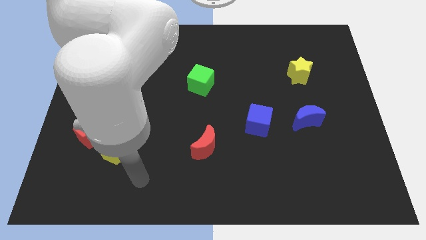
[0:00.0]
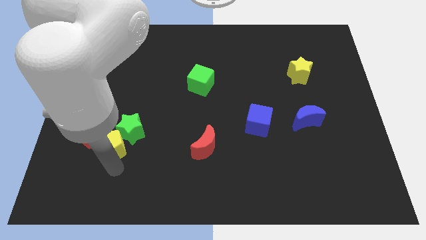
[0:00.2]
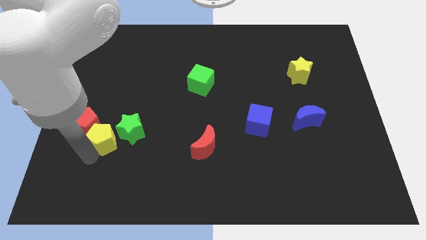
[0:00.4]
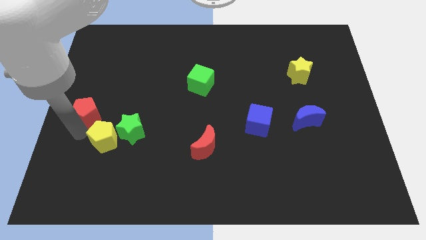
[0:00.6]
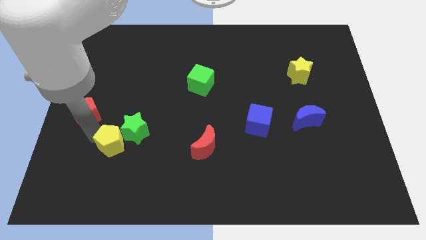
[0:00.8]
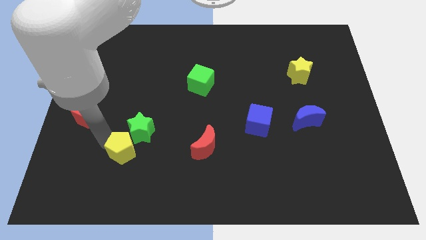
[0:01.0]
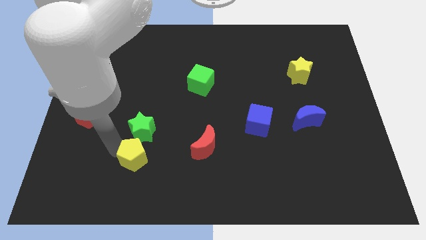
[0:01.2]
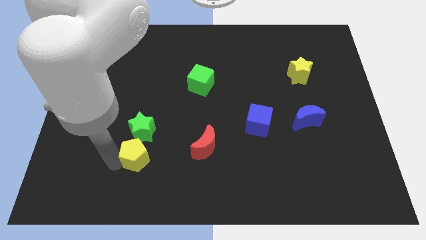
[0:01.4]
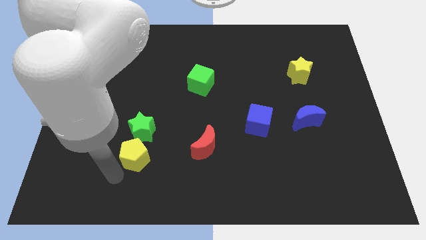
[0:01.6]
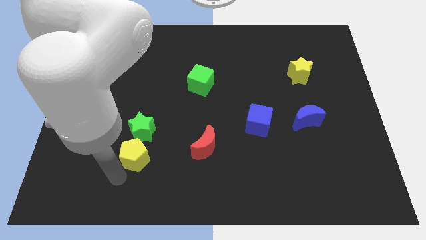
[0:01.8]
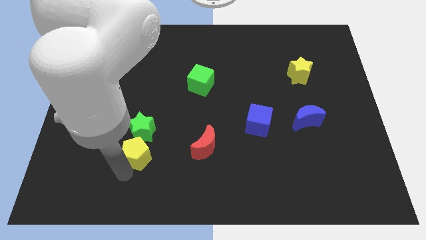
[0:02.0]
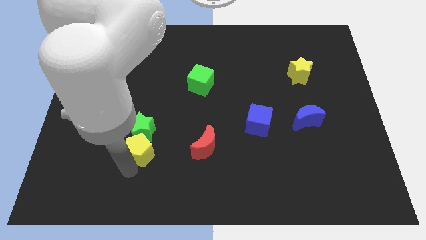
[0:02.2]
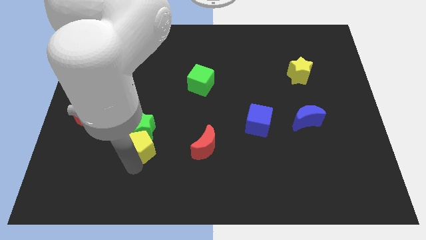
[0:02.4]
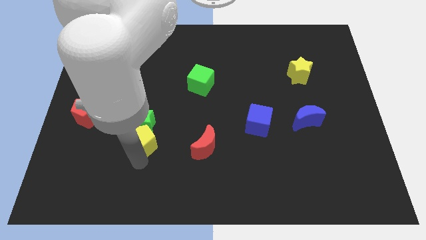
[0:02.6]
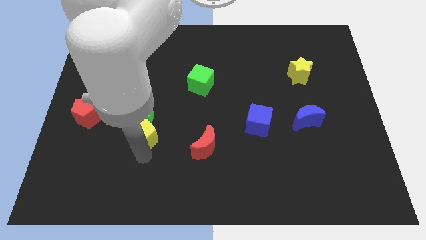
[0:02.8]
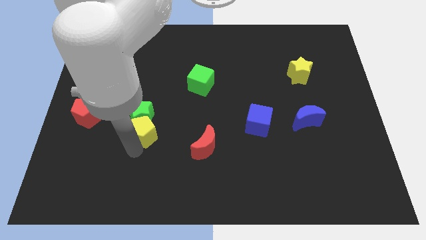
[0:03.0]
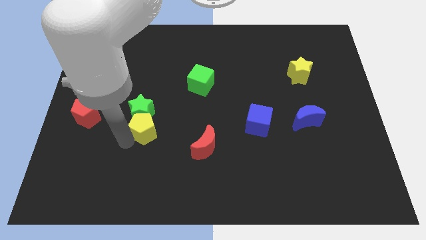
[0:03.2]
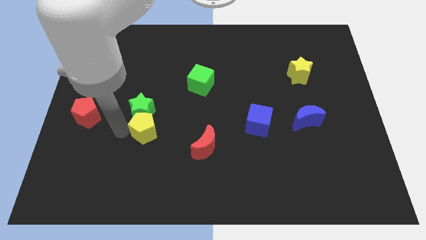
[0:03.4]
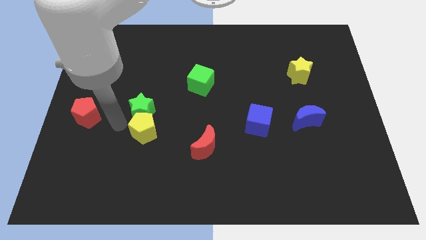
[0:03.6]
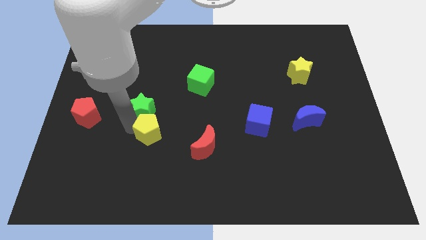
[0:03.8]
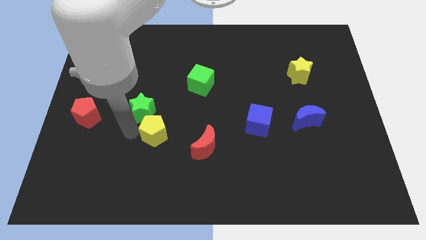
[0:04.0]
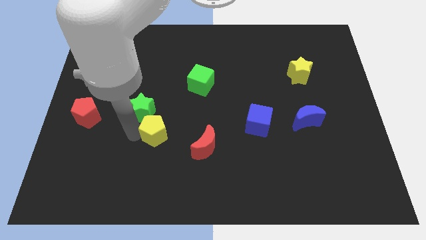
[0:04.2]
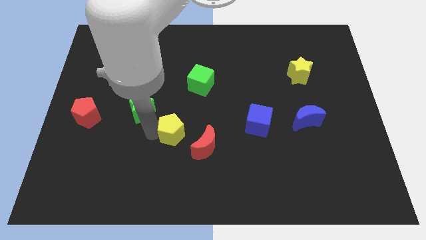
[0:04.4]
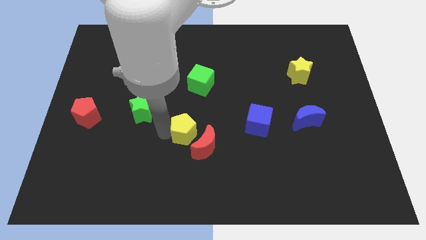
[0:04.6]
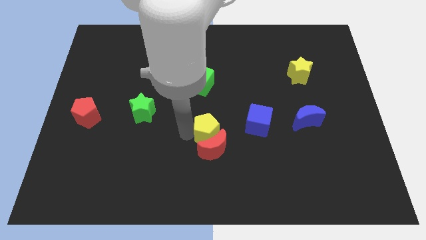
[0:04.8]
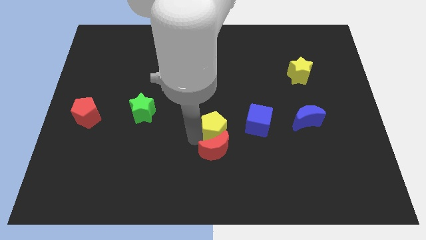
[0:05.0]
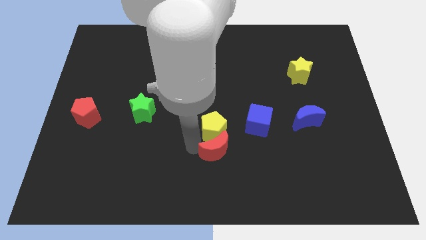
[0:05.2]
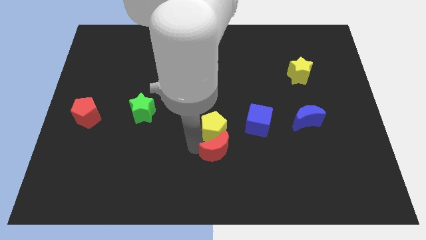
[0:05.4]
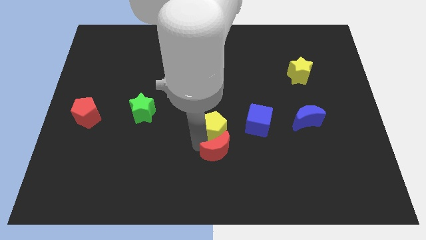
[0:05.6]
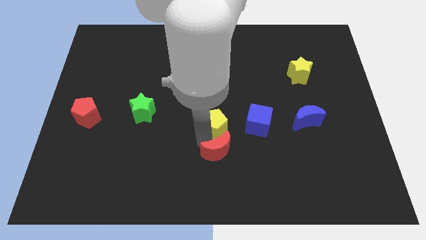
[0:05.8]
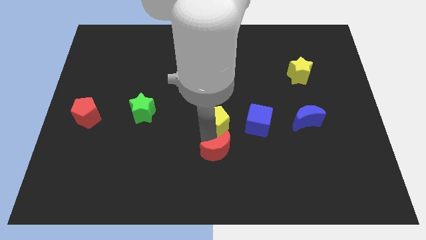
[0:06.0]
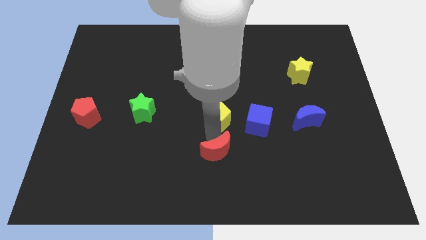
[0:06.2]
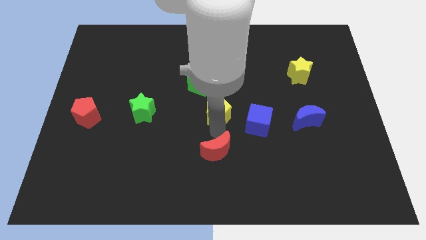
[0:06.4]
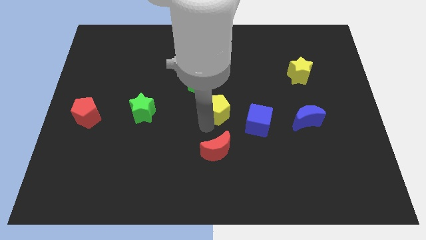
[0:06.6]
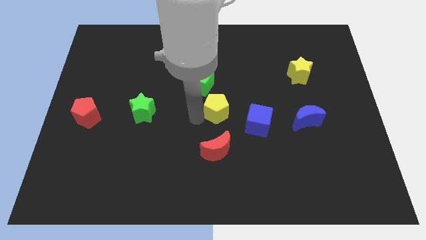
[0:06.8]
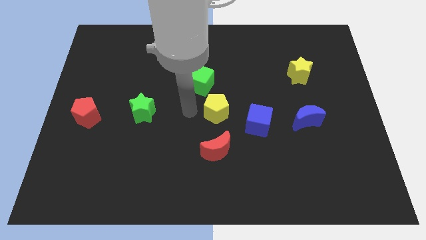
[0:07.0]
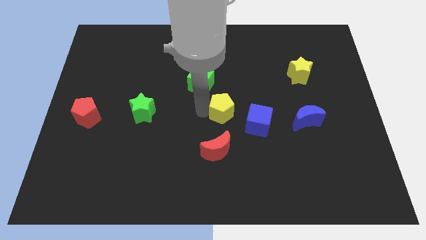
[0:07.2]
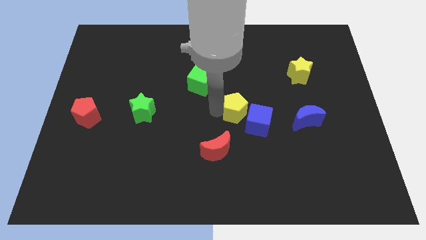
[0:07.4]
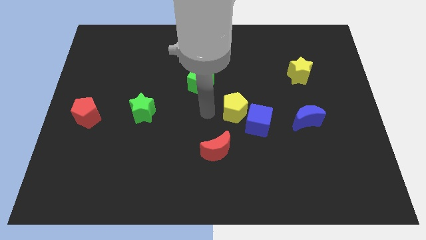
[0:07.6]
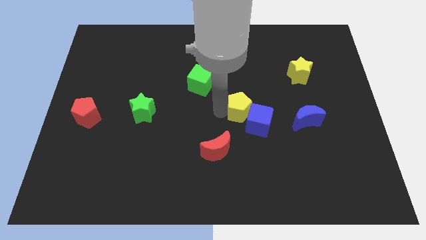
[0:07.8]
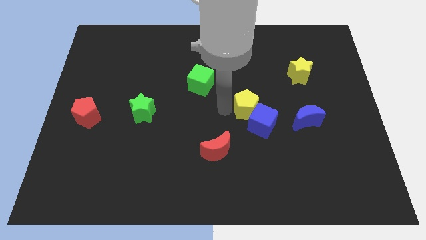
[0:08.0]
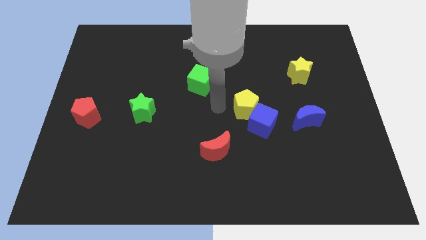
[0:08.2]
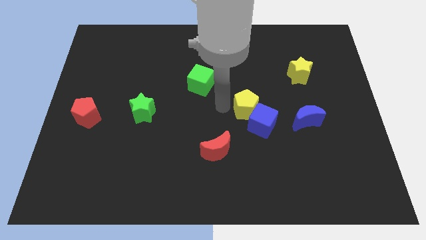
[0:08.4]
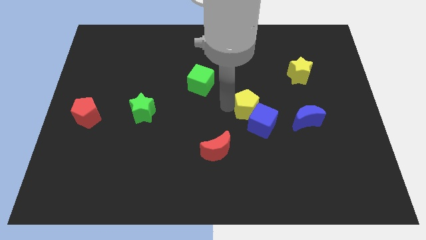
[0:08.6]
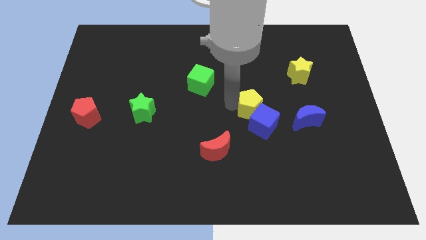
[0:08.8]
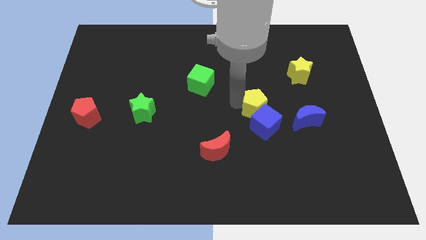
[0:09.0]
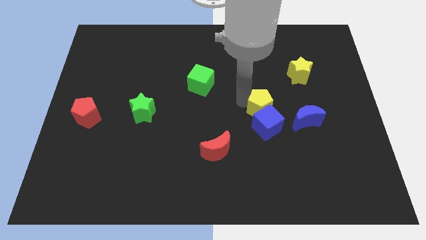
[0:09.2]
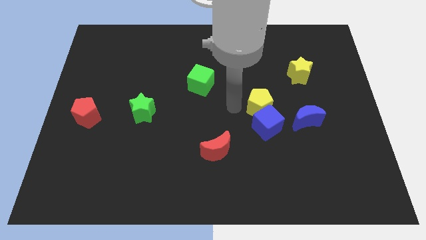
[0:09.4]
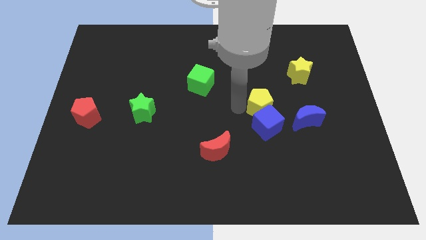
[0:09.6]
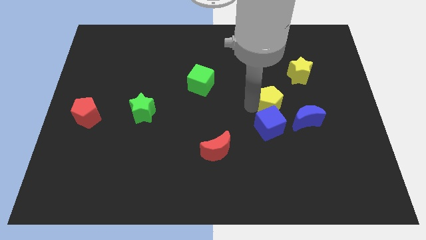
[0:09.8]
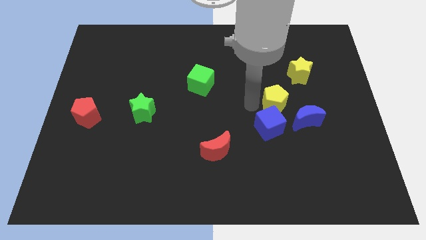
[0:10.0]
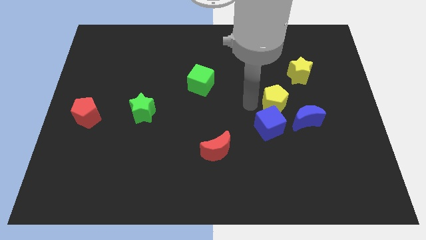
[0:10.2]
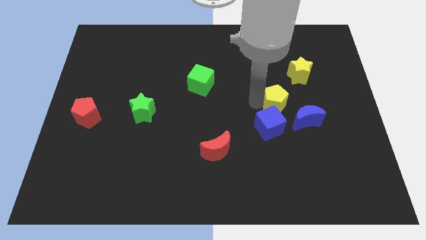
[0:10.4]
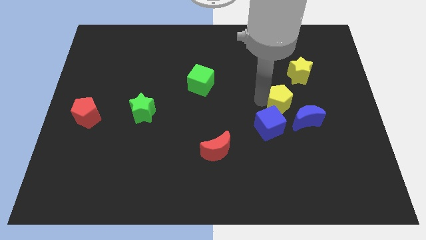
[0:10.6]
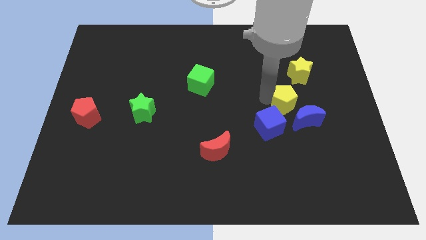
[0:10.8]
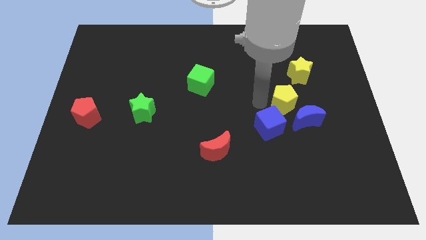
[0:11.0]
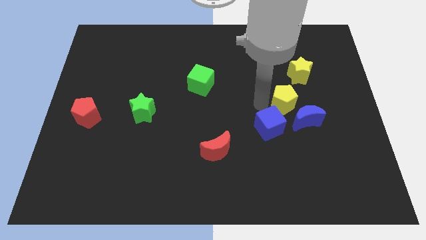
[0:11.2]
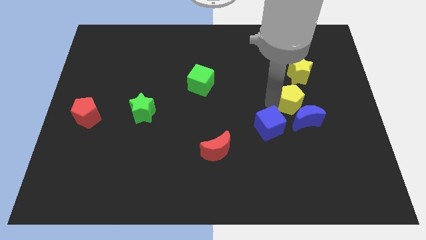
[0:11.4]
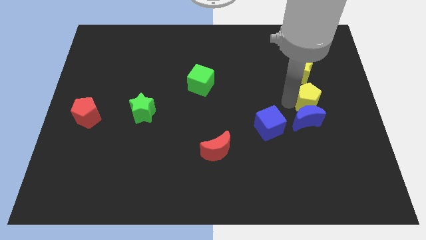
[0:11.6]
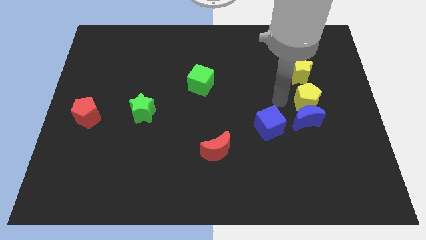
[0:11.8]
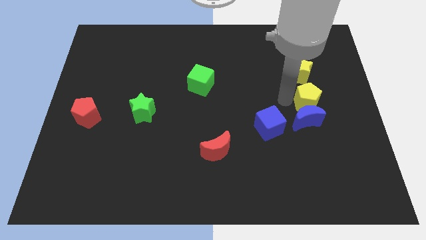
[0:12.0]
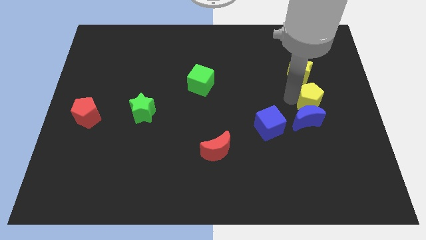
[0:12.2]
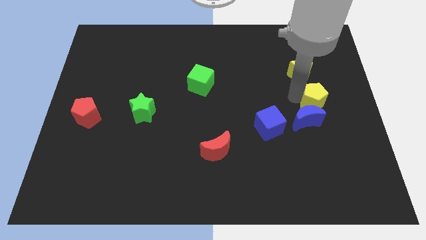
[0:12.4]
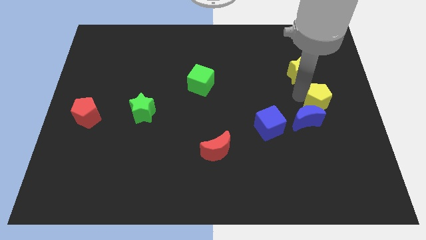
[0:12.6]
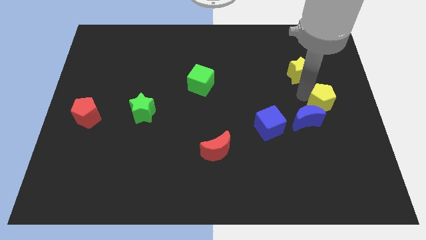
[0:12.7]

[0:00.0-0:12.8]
put the yellow pentagon to the right side

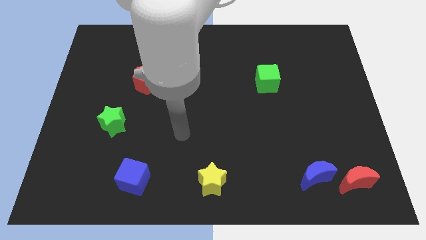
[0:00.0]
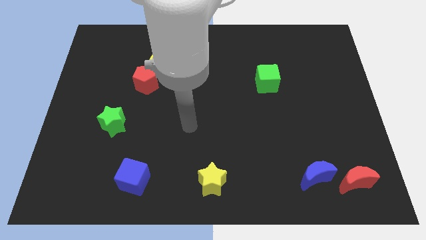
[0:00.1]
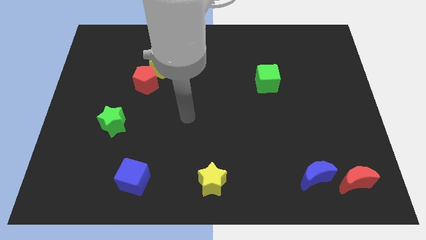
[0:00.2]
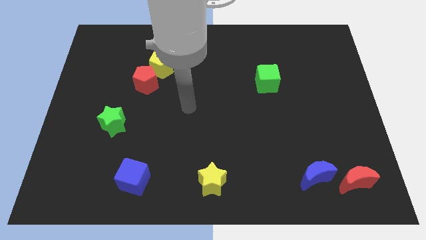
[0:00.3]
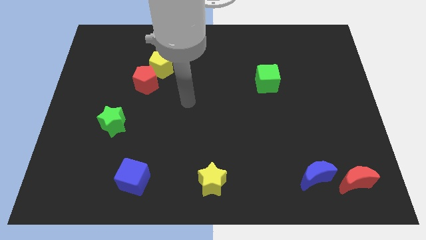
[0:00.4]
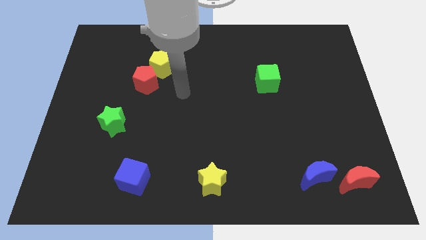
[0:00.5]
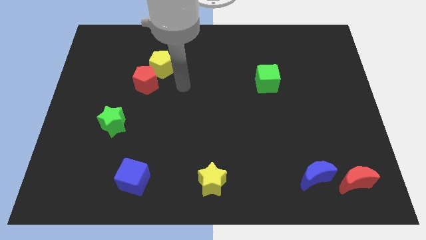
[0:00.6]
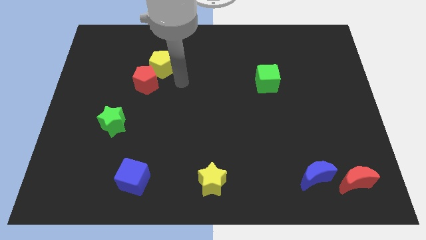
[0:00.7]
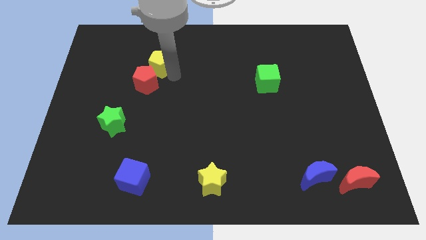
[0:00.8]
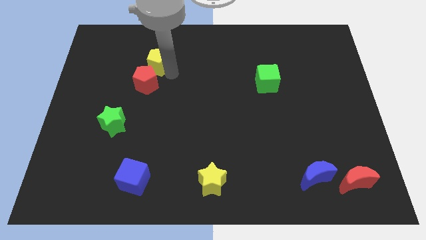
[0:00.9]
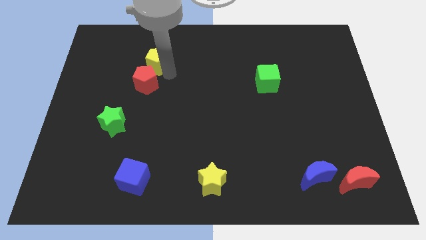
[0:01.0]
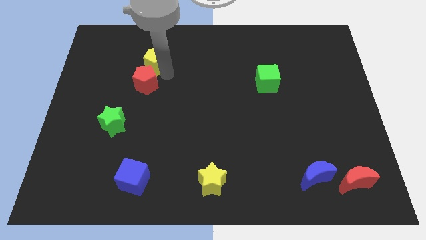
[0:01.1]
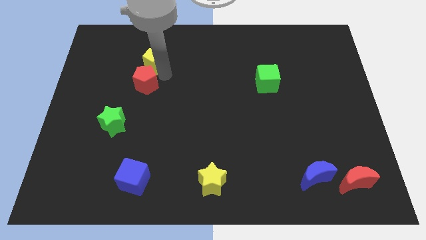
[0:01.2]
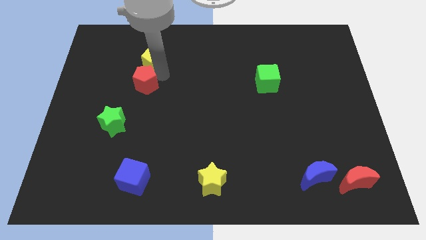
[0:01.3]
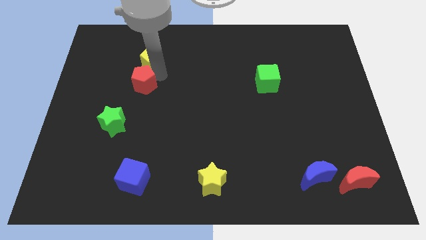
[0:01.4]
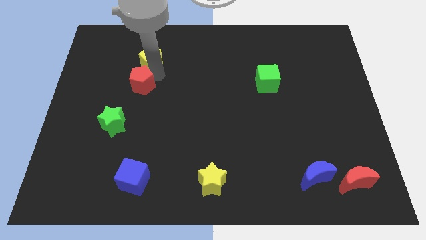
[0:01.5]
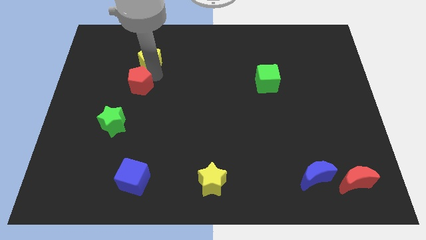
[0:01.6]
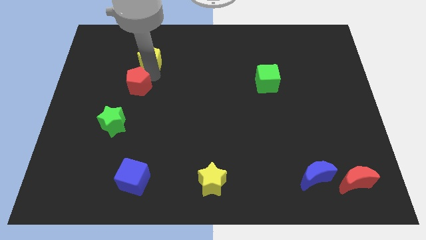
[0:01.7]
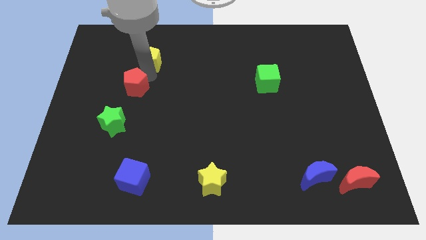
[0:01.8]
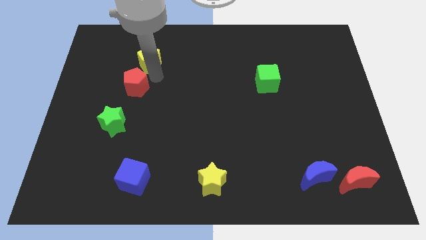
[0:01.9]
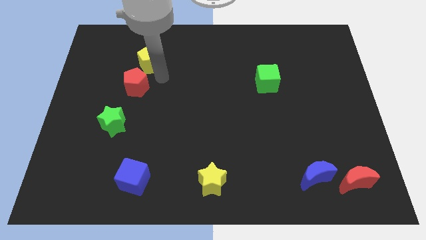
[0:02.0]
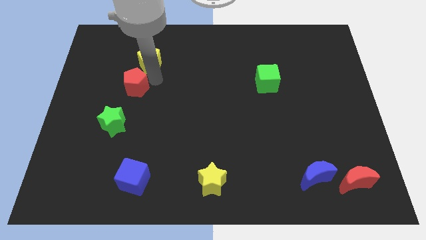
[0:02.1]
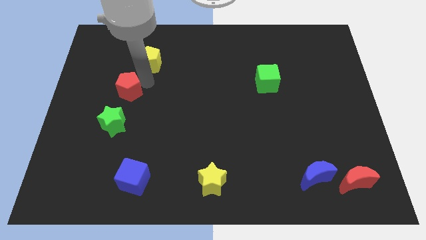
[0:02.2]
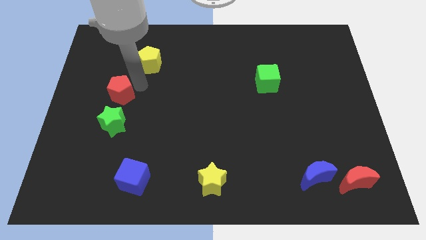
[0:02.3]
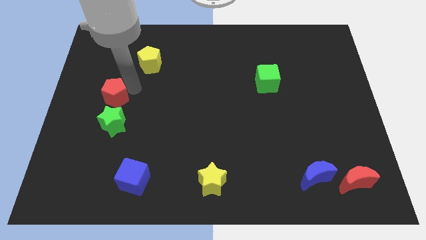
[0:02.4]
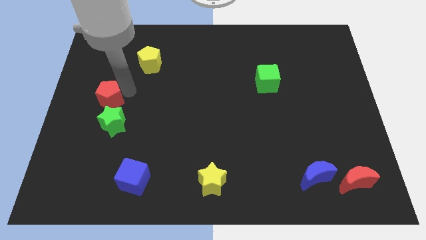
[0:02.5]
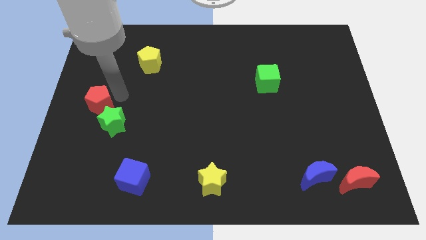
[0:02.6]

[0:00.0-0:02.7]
put the red pentagon to the left side of the board
